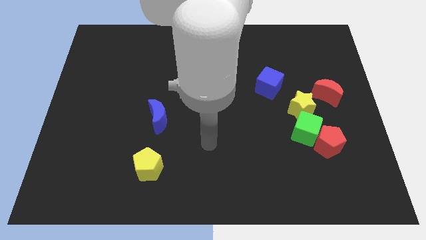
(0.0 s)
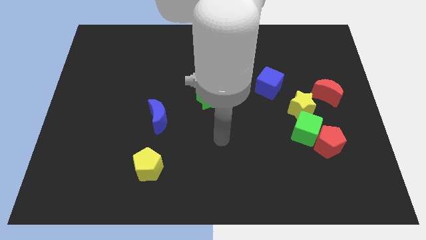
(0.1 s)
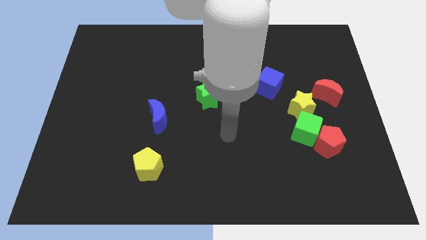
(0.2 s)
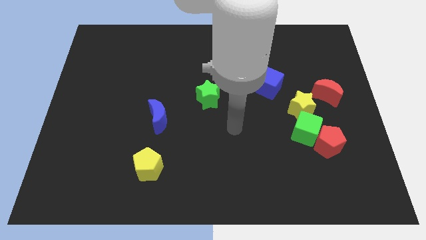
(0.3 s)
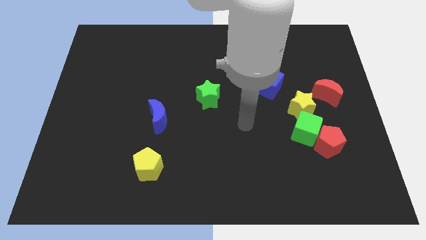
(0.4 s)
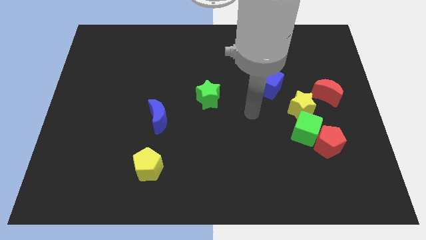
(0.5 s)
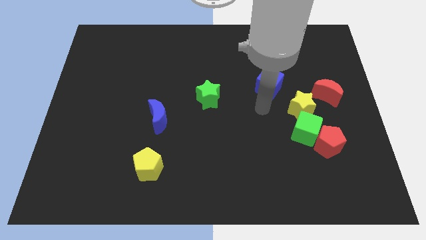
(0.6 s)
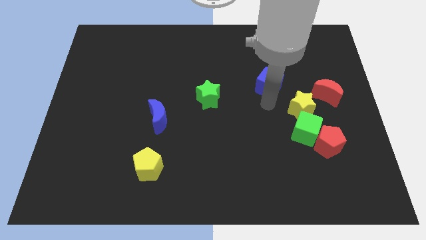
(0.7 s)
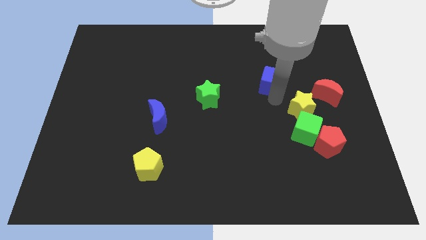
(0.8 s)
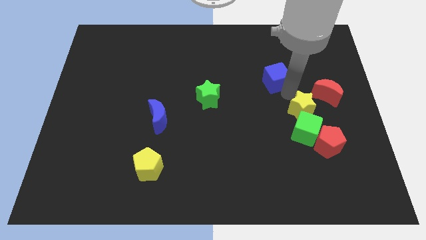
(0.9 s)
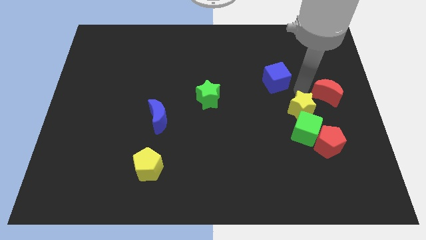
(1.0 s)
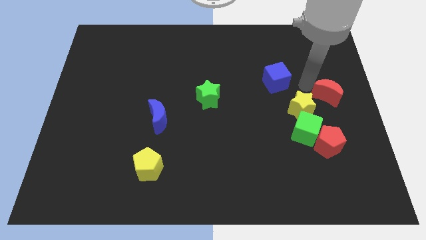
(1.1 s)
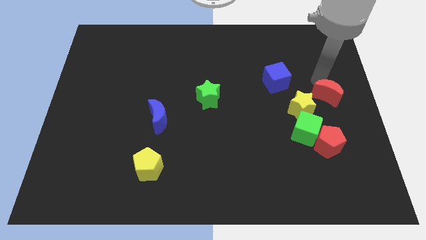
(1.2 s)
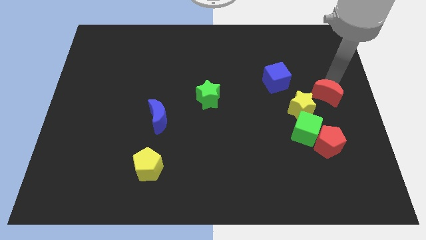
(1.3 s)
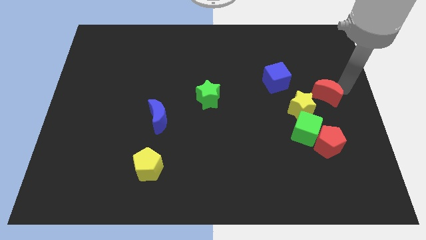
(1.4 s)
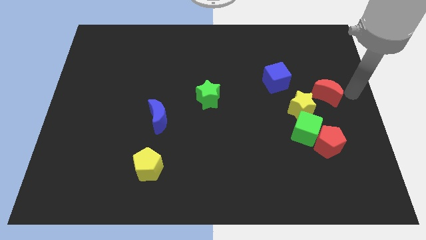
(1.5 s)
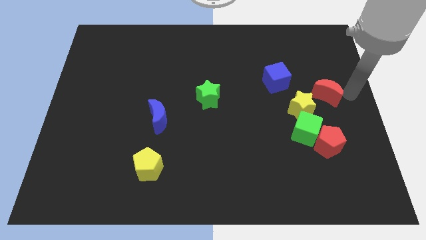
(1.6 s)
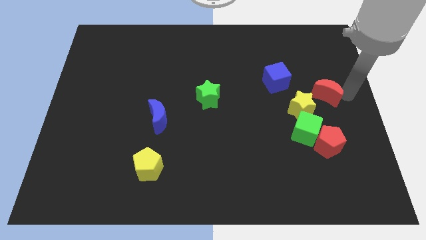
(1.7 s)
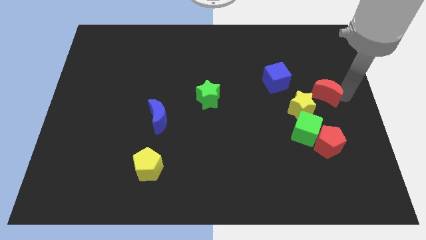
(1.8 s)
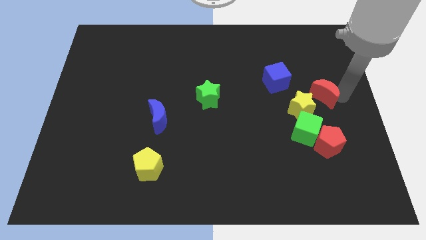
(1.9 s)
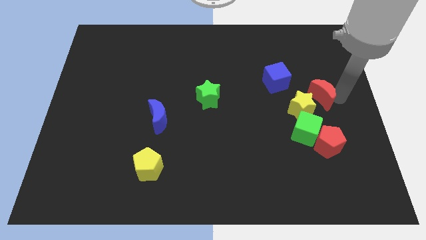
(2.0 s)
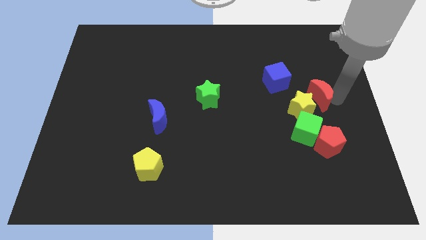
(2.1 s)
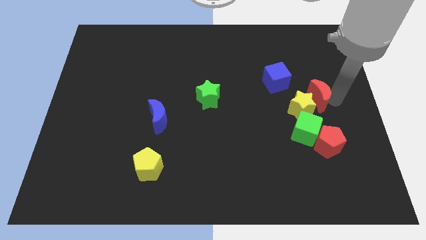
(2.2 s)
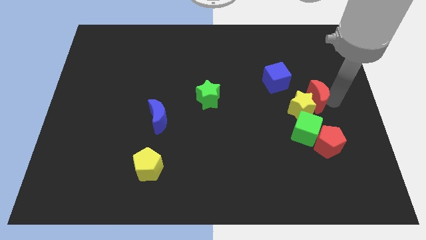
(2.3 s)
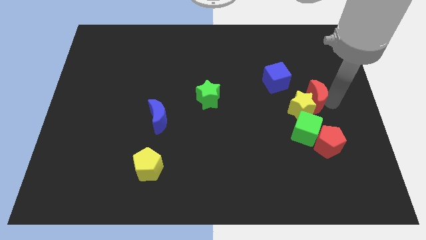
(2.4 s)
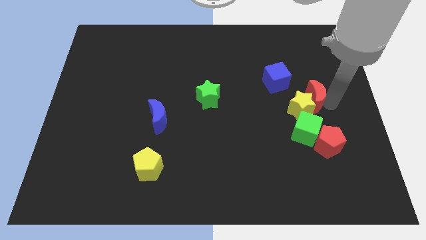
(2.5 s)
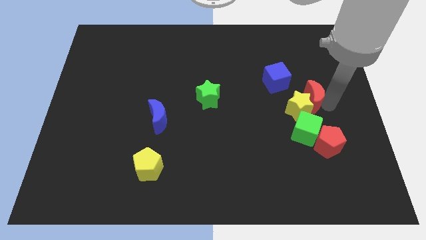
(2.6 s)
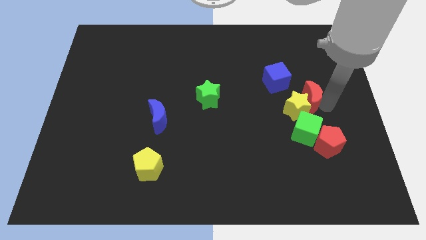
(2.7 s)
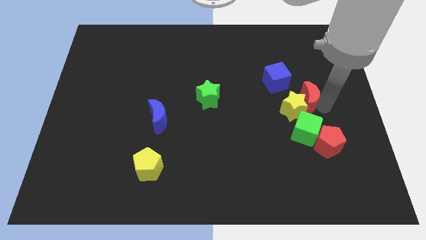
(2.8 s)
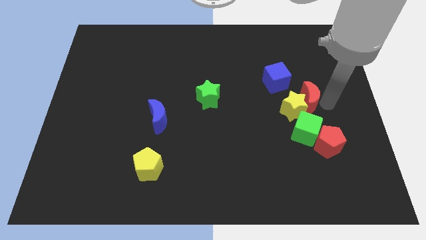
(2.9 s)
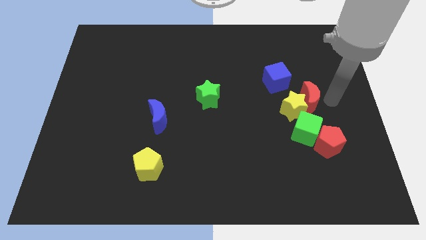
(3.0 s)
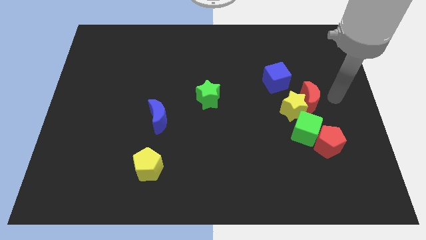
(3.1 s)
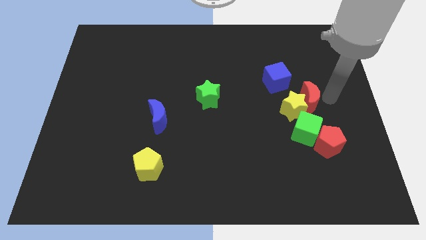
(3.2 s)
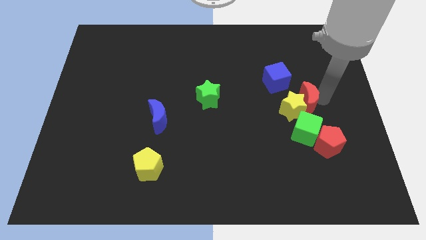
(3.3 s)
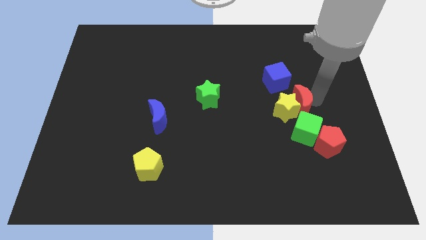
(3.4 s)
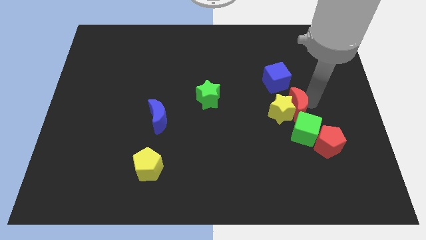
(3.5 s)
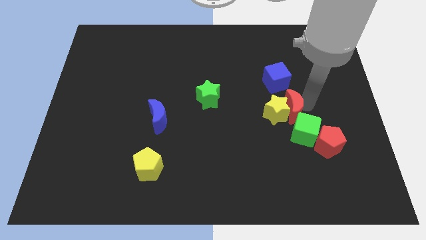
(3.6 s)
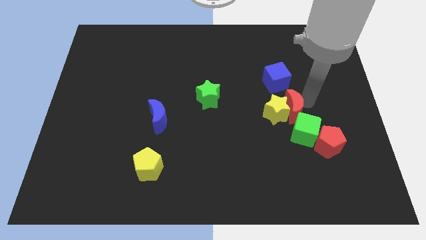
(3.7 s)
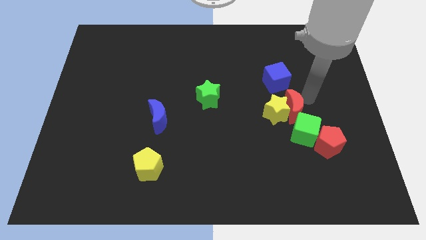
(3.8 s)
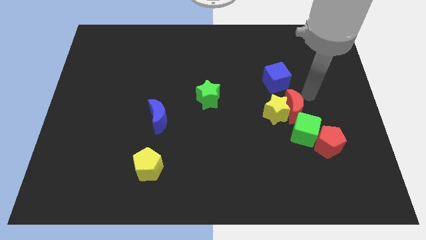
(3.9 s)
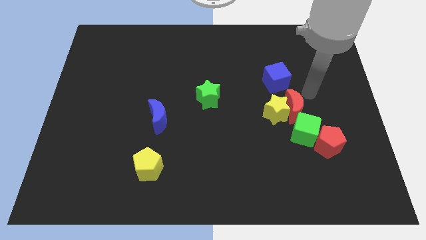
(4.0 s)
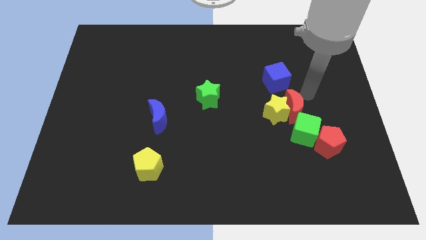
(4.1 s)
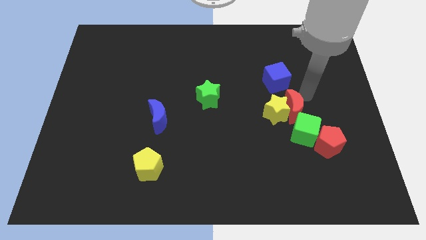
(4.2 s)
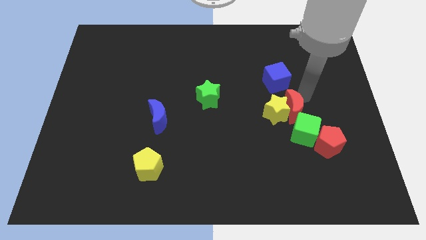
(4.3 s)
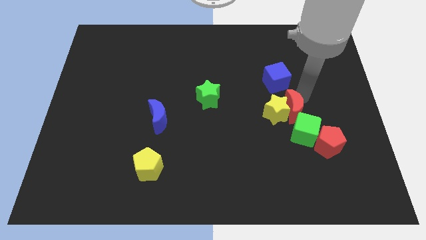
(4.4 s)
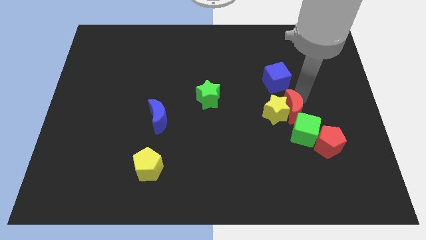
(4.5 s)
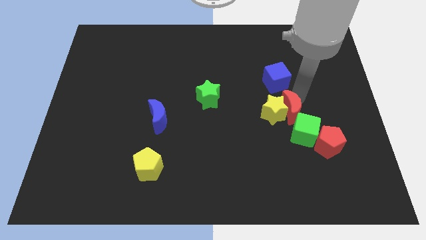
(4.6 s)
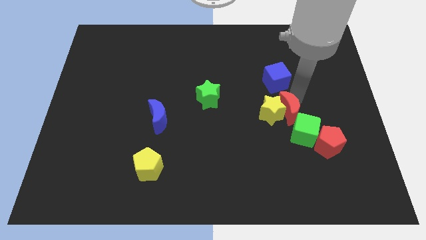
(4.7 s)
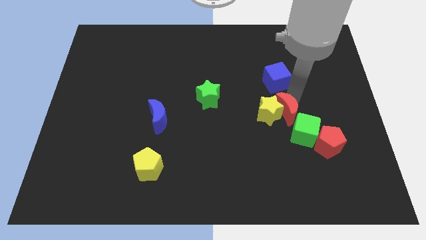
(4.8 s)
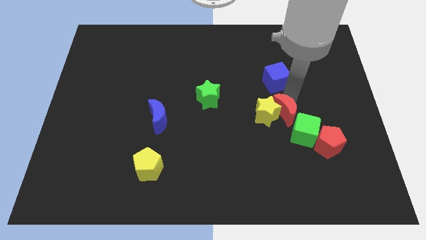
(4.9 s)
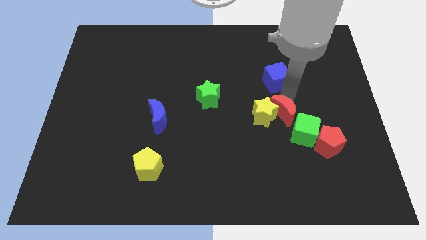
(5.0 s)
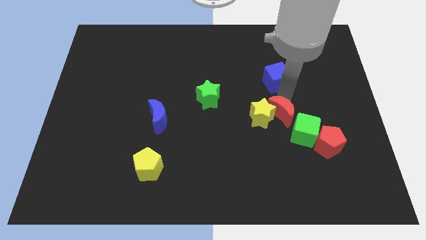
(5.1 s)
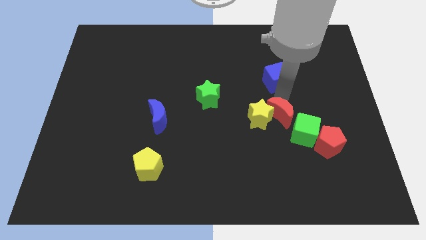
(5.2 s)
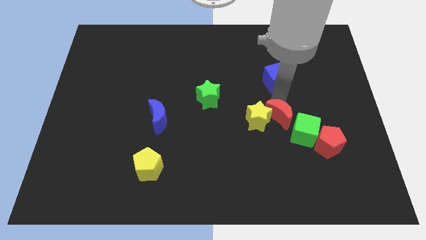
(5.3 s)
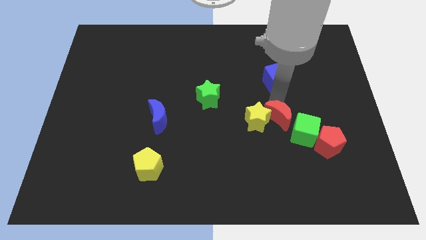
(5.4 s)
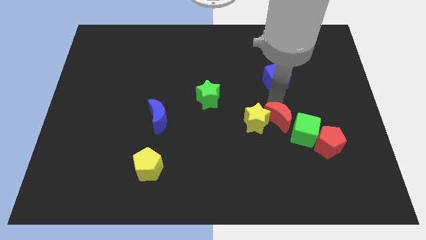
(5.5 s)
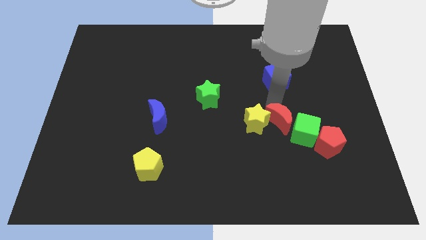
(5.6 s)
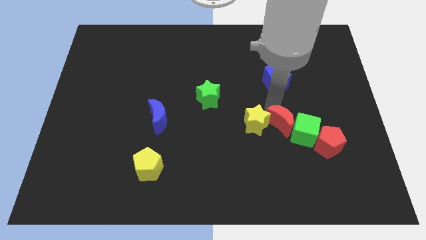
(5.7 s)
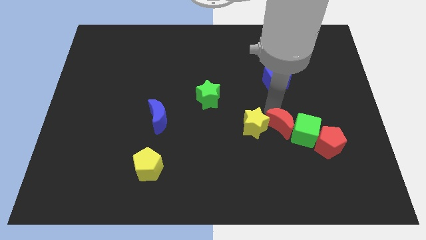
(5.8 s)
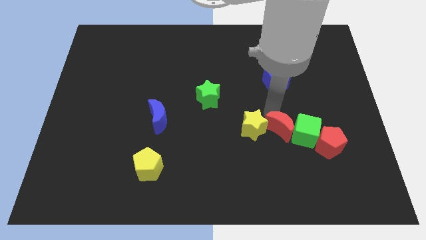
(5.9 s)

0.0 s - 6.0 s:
move the red moon to the bottom left side of the green cube

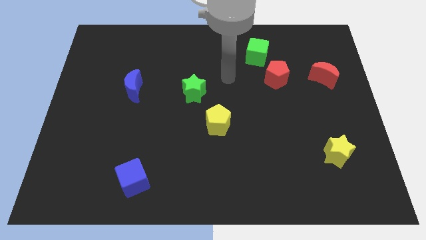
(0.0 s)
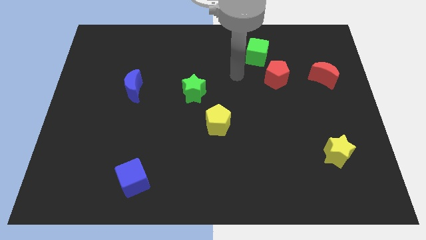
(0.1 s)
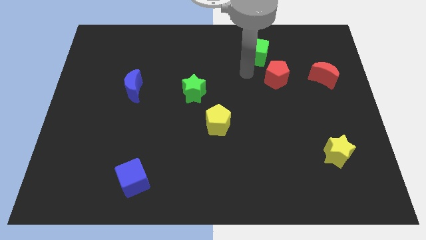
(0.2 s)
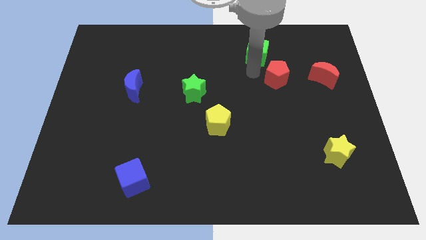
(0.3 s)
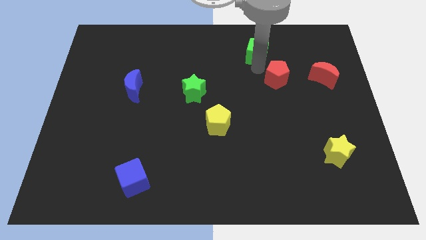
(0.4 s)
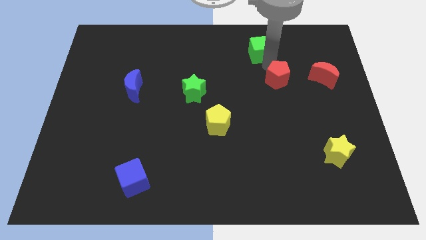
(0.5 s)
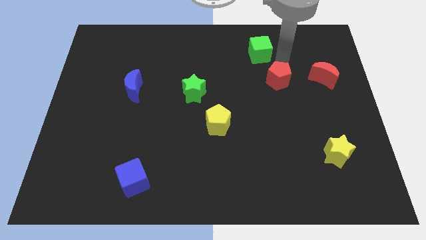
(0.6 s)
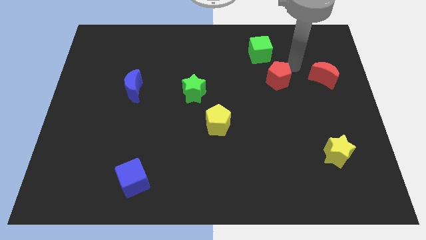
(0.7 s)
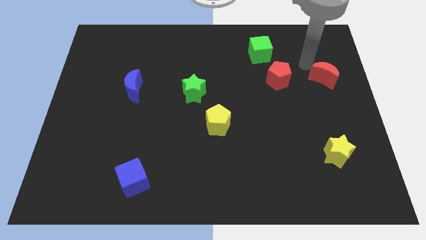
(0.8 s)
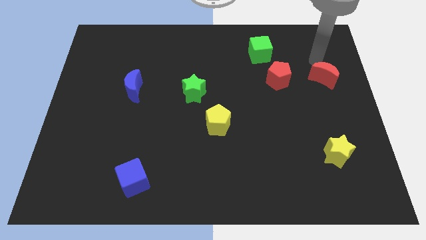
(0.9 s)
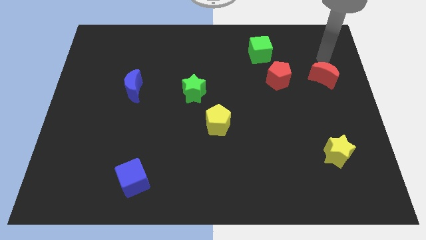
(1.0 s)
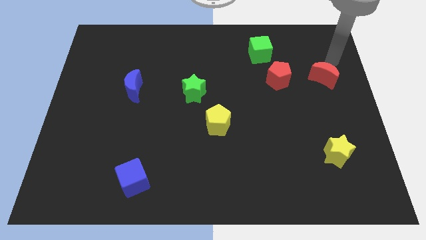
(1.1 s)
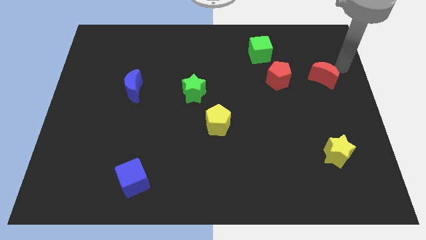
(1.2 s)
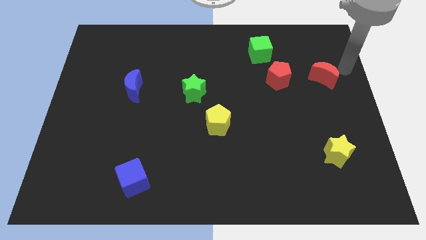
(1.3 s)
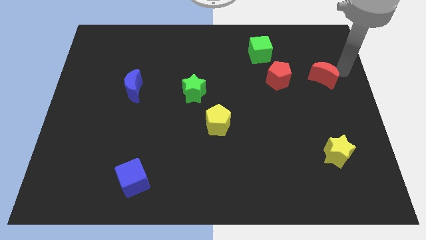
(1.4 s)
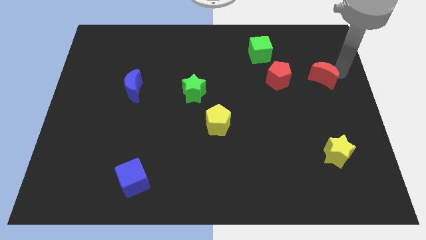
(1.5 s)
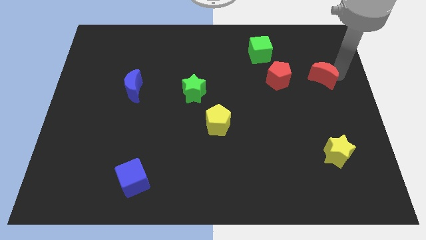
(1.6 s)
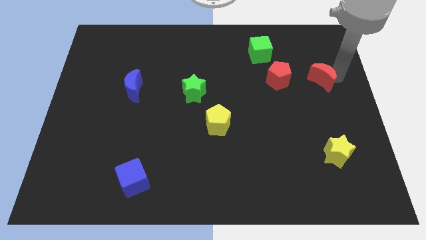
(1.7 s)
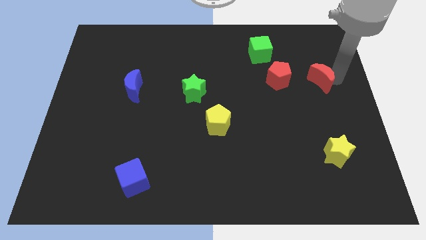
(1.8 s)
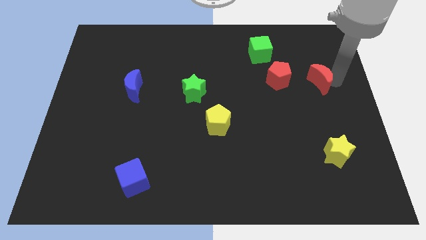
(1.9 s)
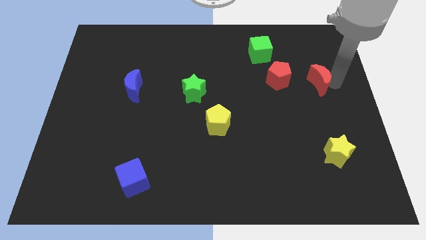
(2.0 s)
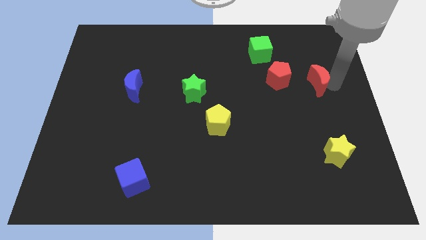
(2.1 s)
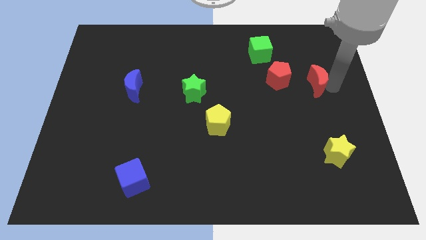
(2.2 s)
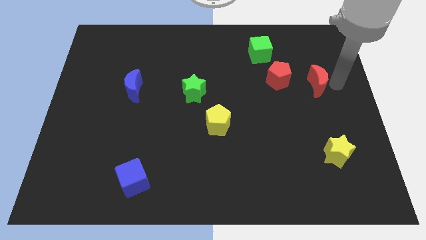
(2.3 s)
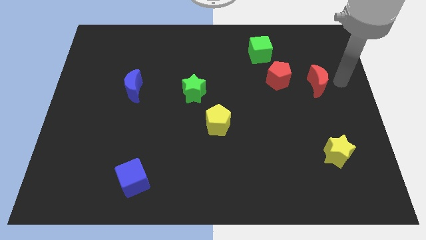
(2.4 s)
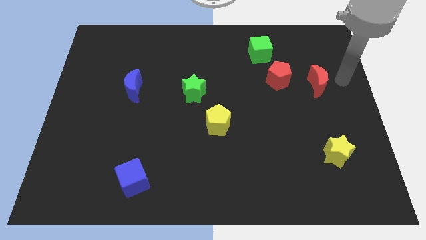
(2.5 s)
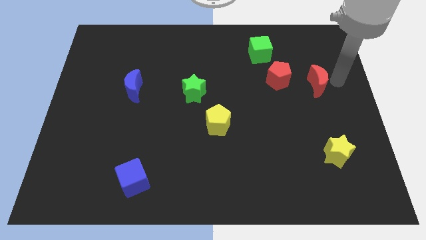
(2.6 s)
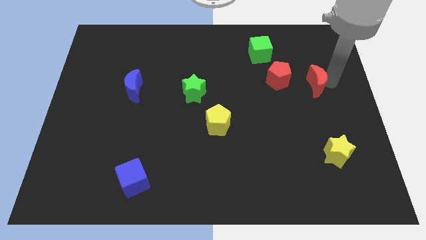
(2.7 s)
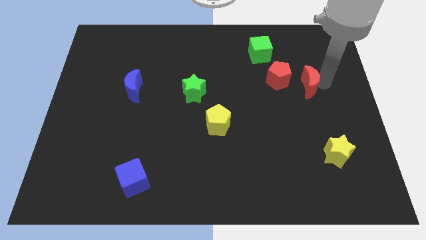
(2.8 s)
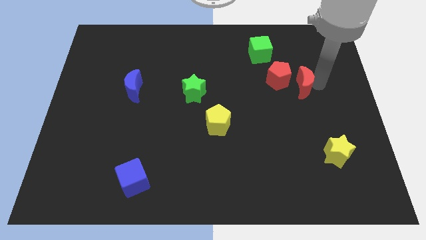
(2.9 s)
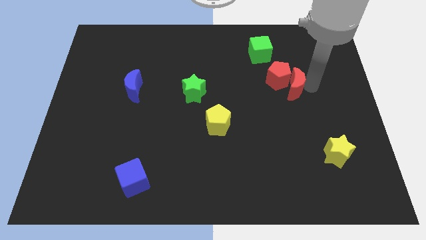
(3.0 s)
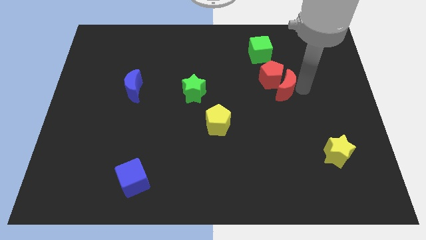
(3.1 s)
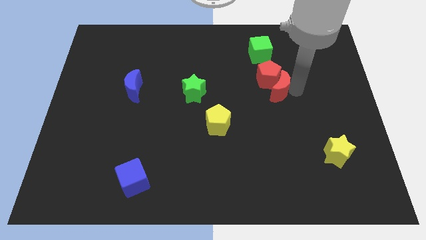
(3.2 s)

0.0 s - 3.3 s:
put the red moon to the bottom of the green cube
